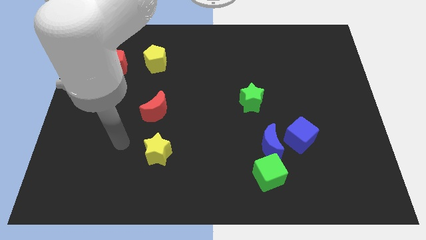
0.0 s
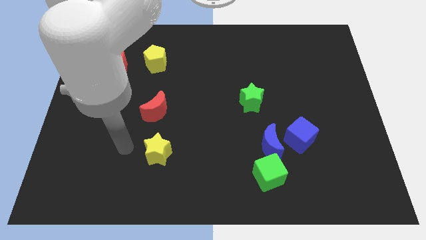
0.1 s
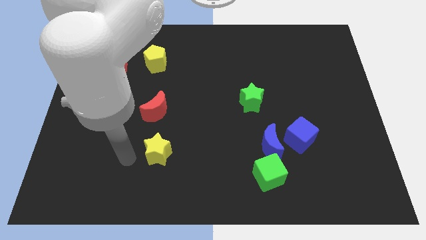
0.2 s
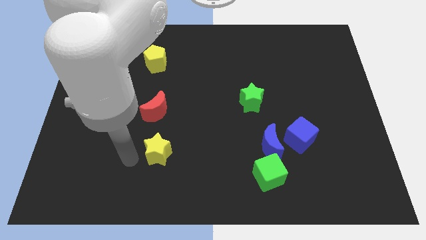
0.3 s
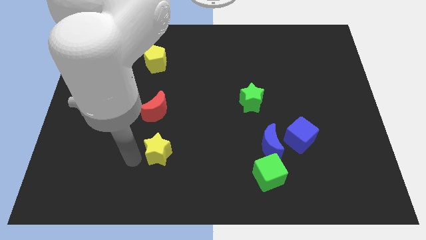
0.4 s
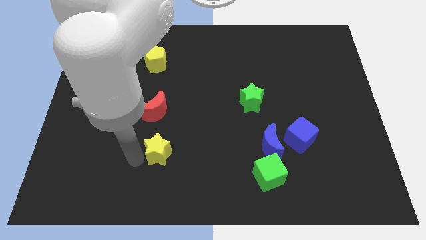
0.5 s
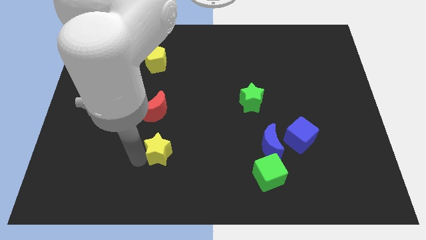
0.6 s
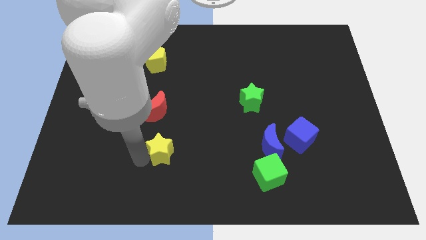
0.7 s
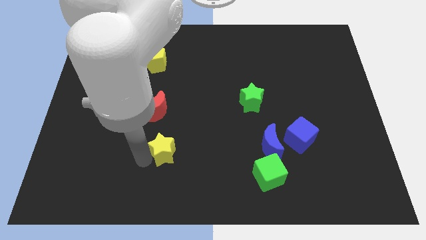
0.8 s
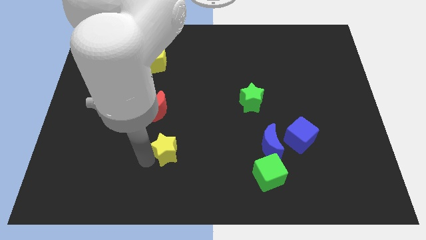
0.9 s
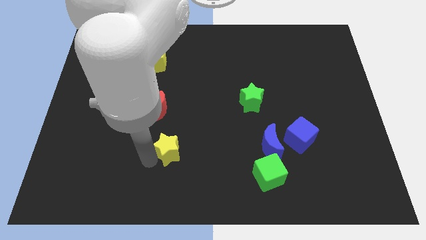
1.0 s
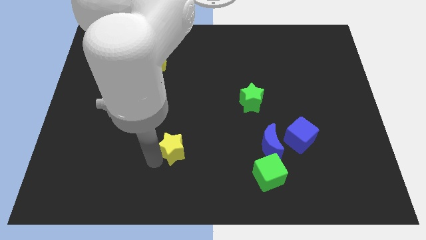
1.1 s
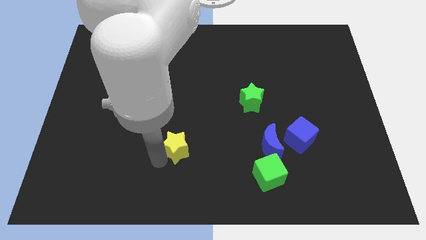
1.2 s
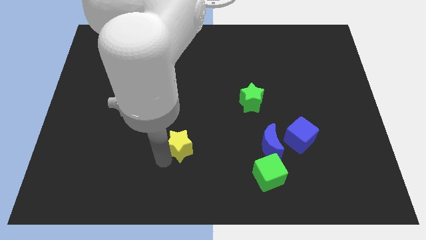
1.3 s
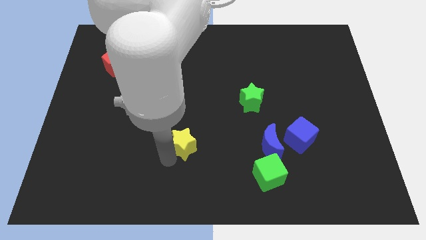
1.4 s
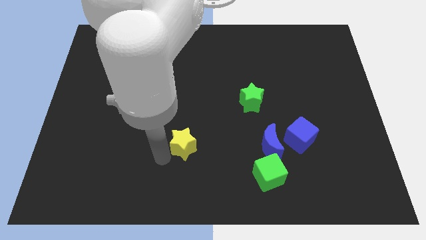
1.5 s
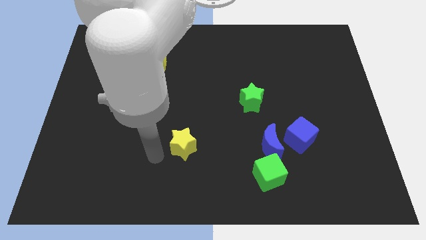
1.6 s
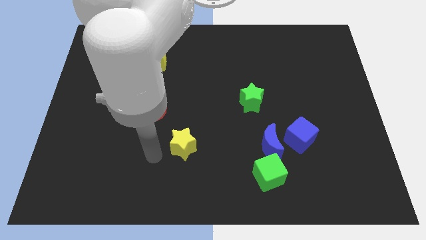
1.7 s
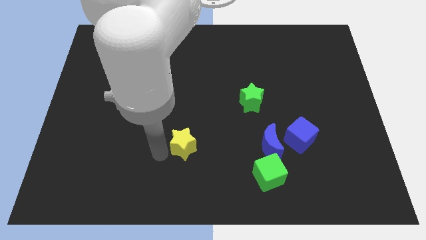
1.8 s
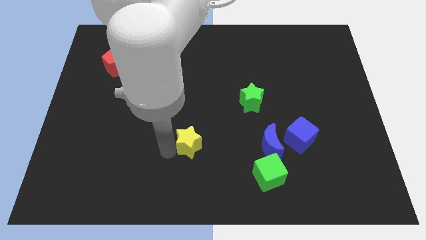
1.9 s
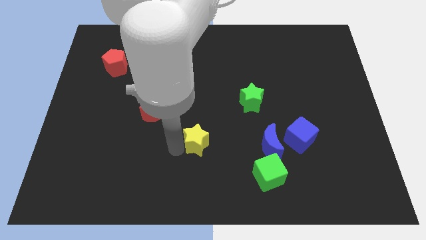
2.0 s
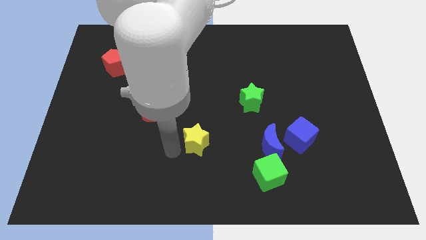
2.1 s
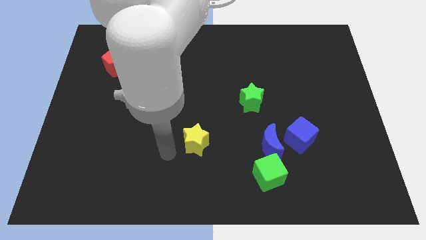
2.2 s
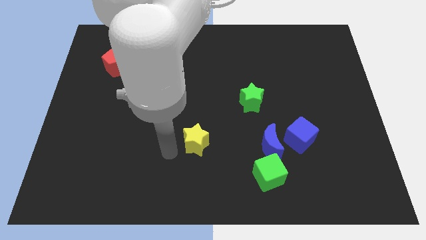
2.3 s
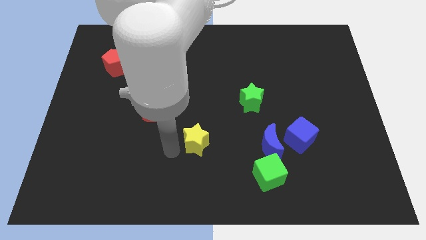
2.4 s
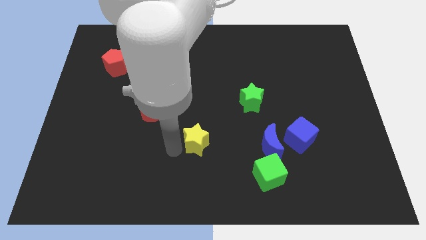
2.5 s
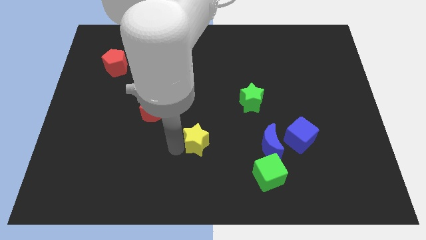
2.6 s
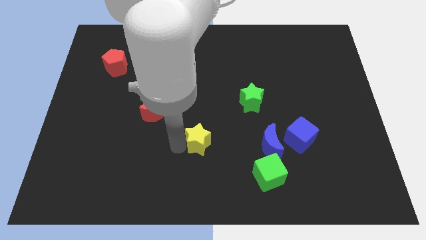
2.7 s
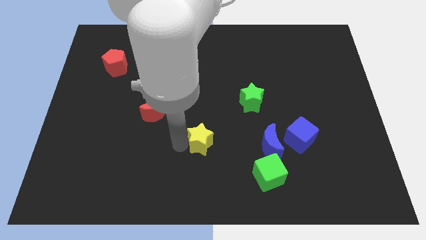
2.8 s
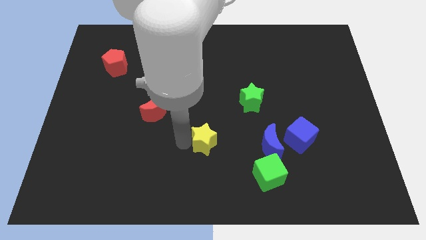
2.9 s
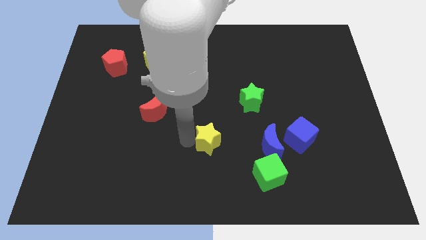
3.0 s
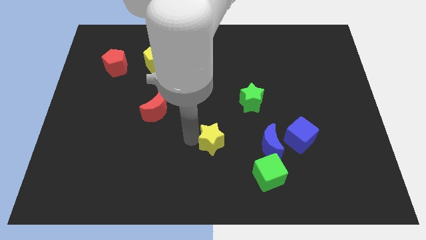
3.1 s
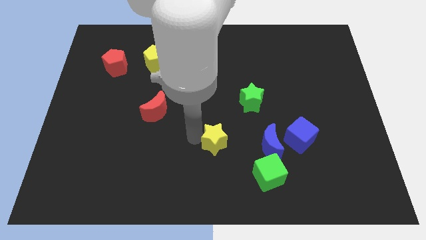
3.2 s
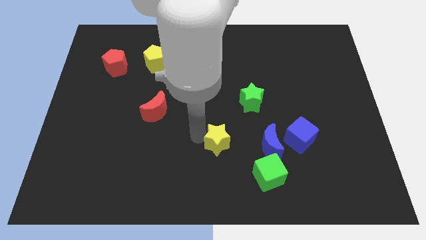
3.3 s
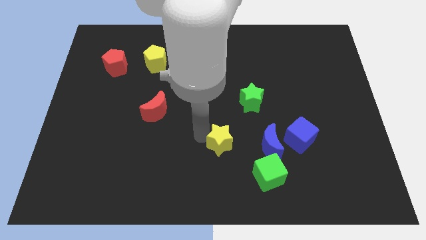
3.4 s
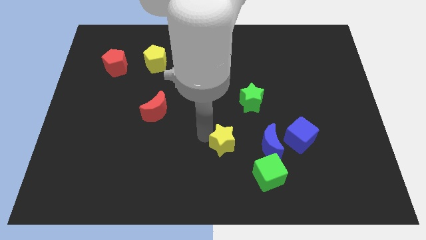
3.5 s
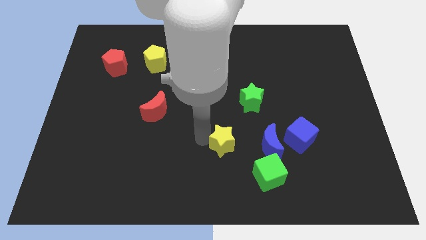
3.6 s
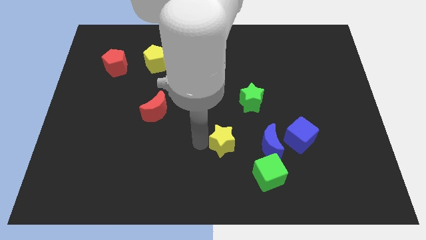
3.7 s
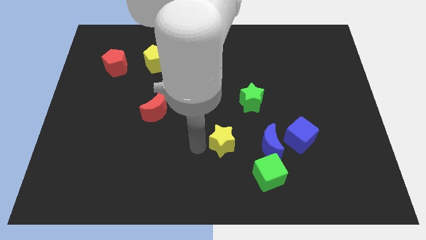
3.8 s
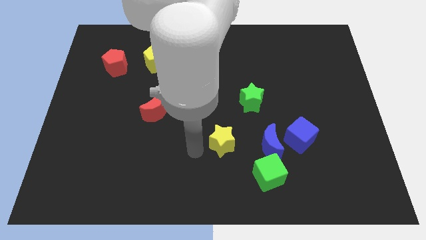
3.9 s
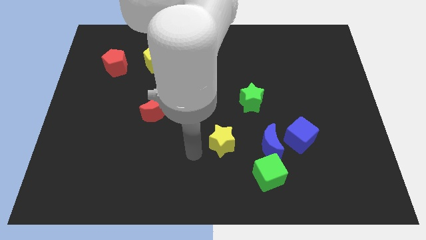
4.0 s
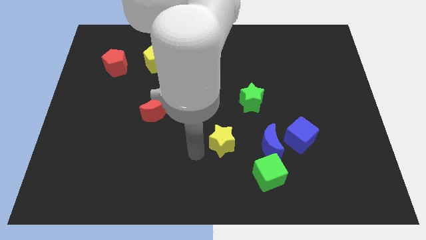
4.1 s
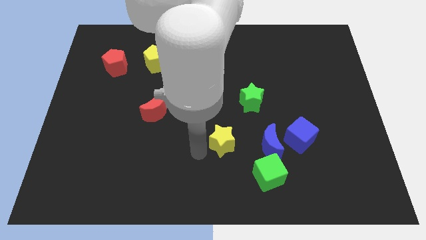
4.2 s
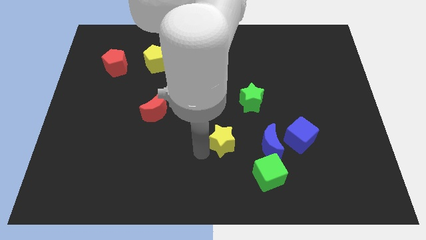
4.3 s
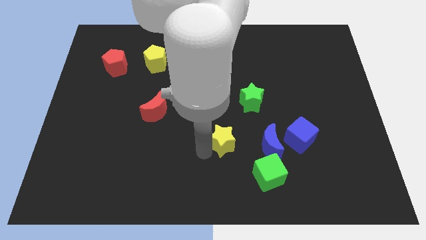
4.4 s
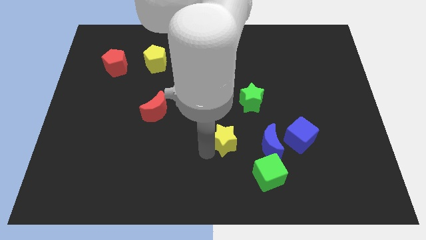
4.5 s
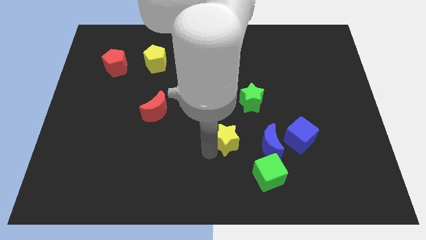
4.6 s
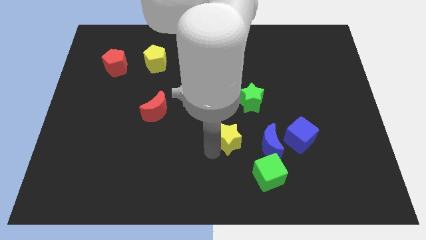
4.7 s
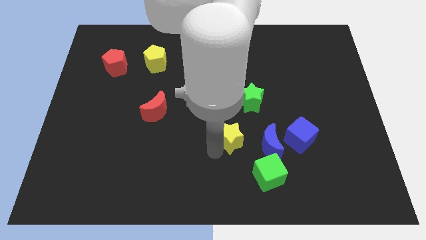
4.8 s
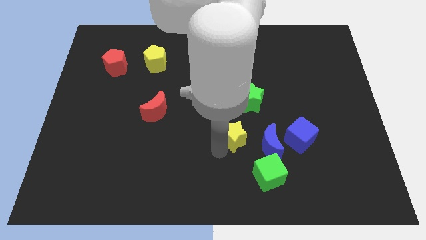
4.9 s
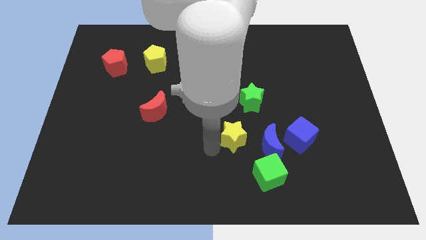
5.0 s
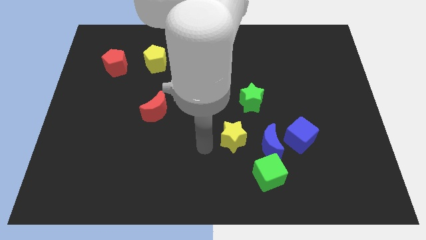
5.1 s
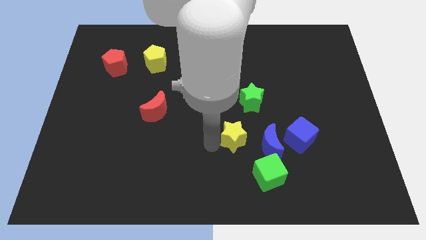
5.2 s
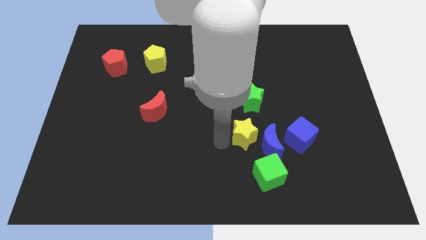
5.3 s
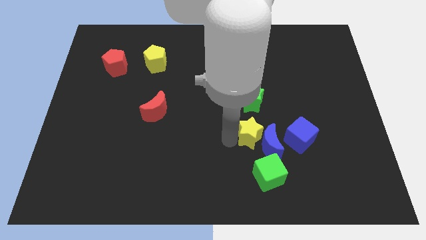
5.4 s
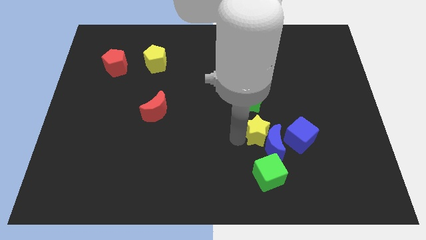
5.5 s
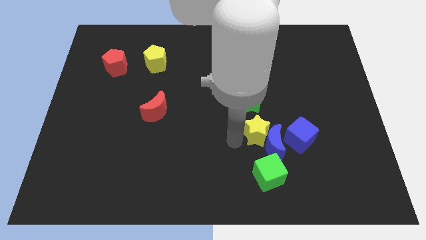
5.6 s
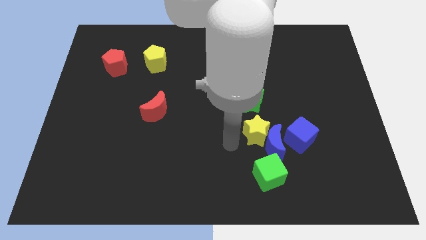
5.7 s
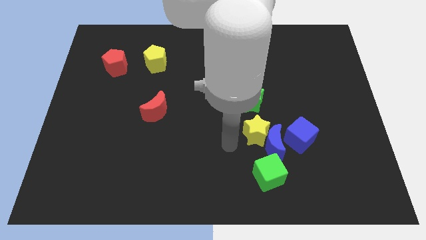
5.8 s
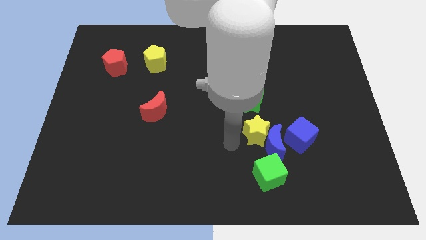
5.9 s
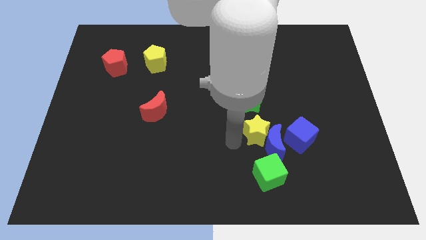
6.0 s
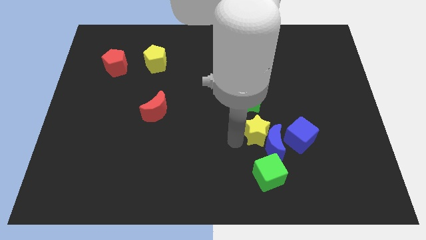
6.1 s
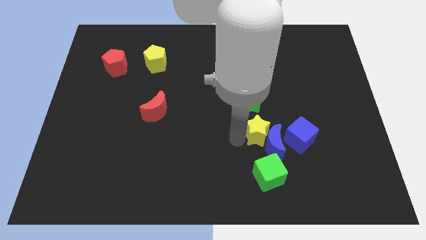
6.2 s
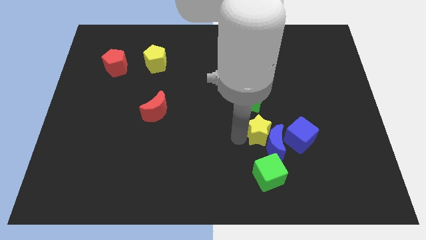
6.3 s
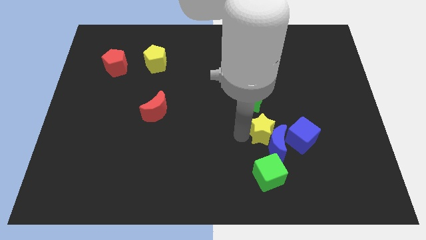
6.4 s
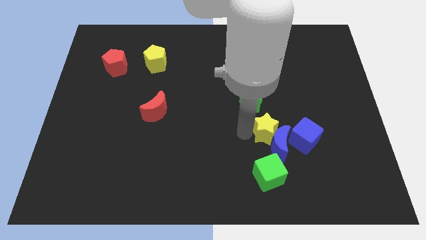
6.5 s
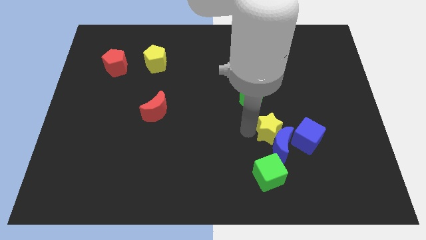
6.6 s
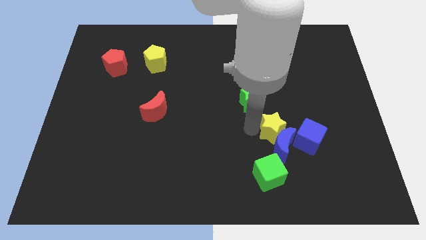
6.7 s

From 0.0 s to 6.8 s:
put the yellow star to the top right of the blue moon

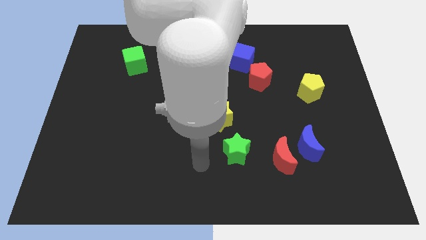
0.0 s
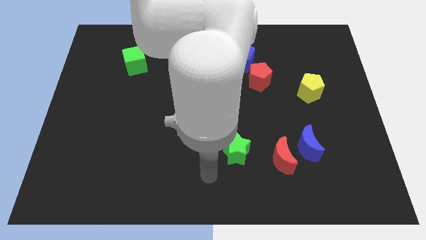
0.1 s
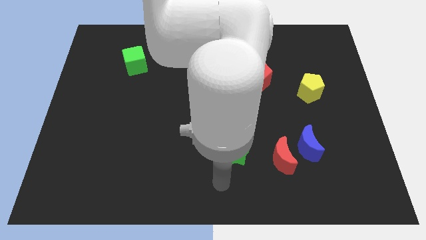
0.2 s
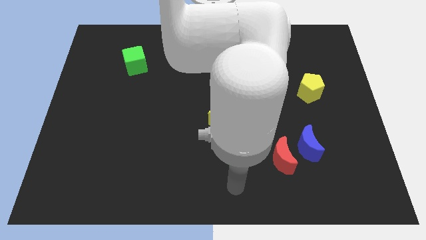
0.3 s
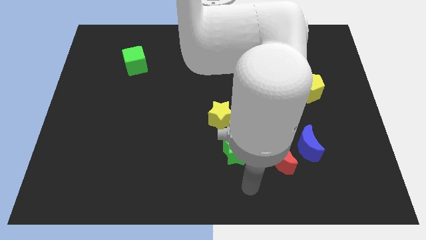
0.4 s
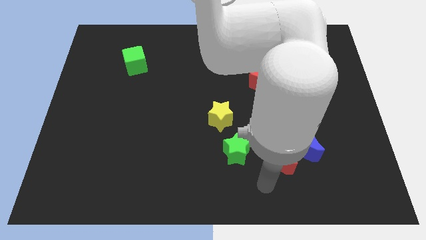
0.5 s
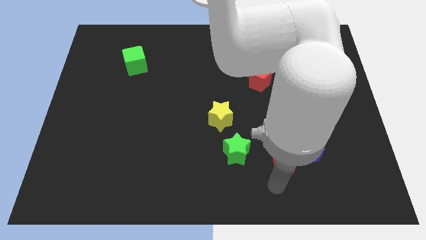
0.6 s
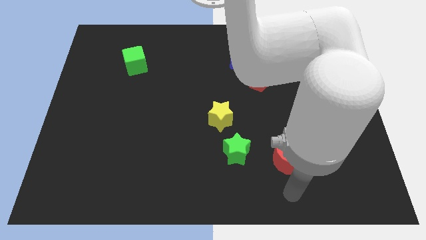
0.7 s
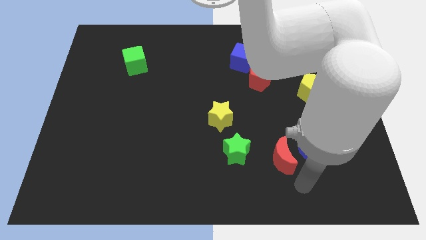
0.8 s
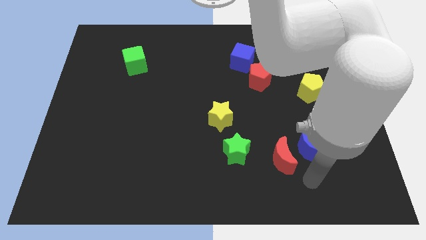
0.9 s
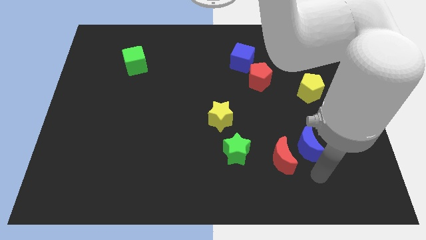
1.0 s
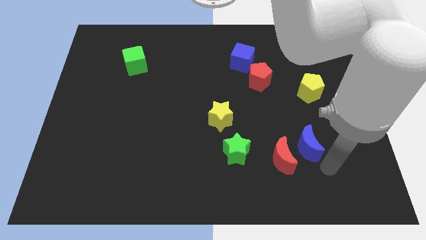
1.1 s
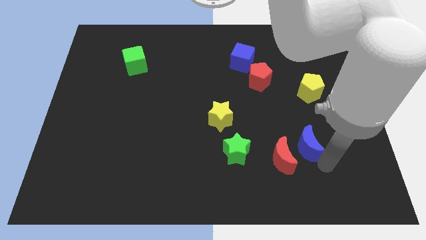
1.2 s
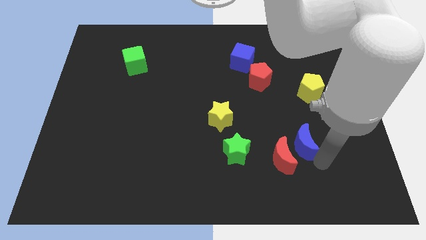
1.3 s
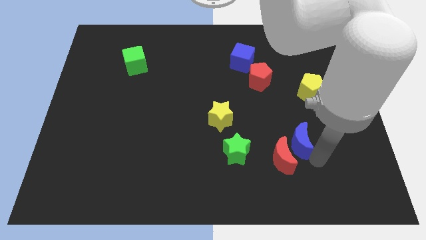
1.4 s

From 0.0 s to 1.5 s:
move the blue moon above the red moon
